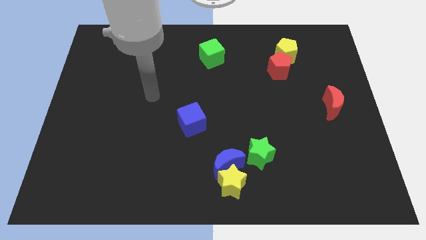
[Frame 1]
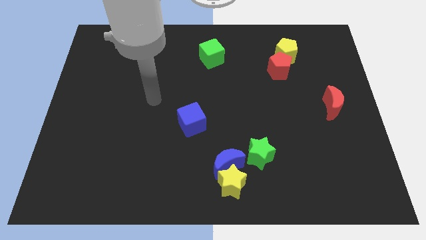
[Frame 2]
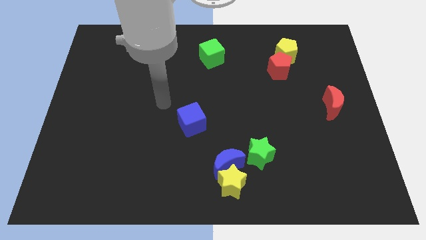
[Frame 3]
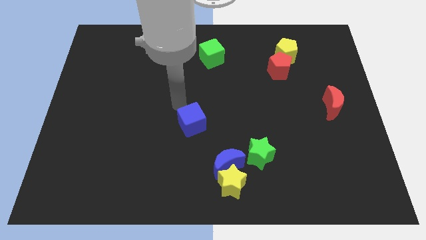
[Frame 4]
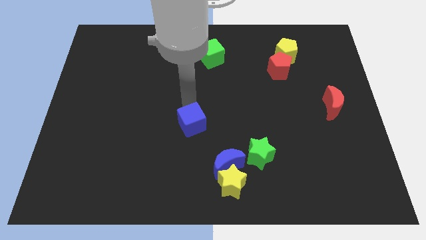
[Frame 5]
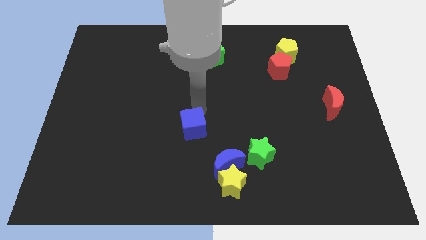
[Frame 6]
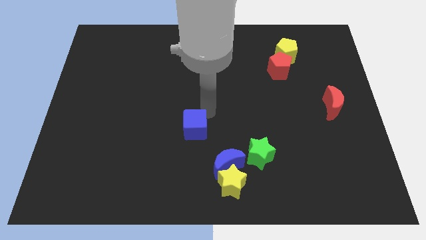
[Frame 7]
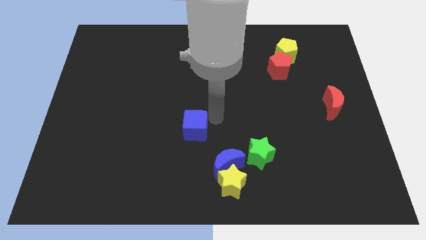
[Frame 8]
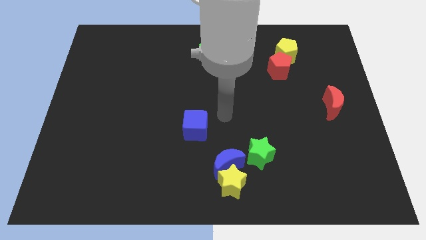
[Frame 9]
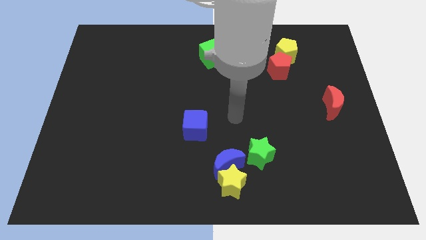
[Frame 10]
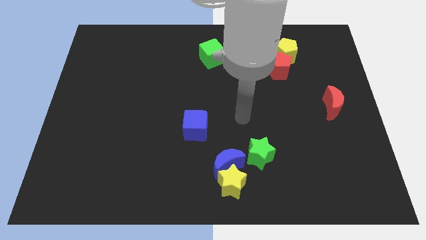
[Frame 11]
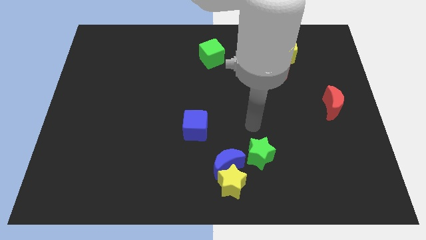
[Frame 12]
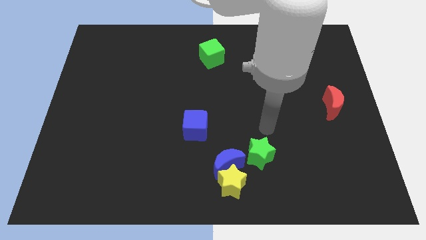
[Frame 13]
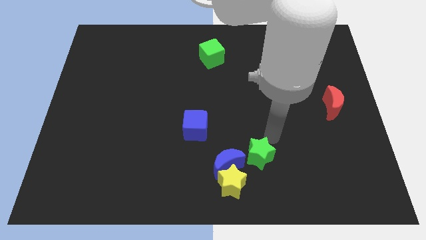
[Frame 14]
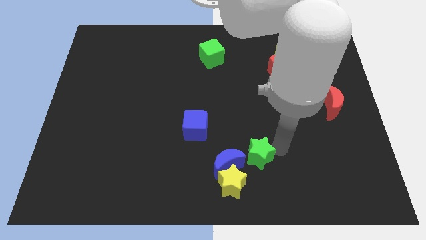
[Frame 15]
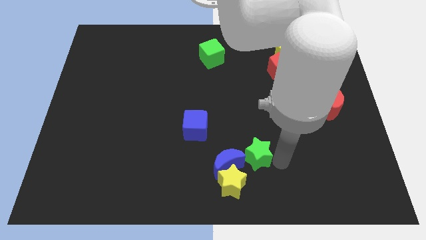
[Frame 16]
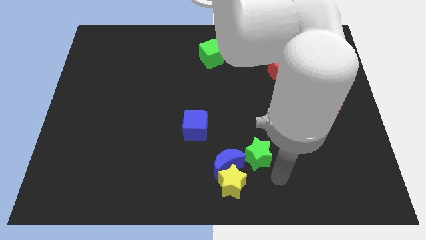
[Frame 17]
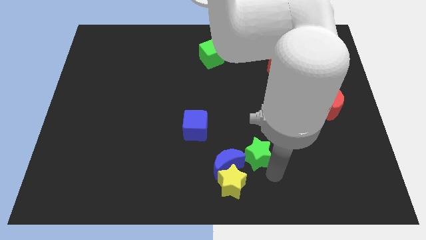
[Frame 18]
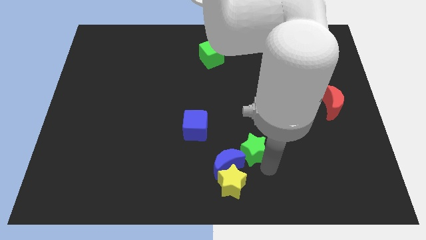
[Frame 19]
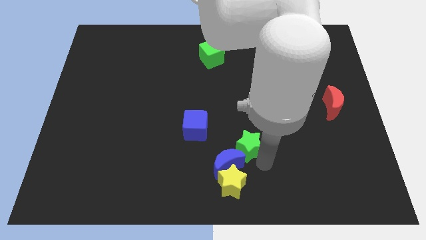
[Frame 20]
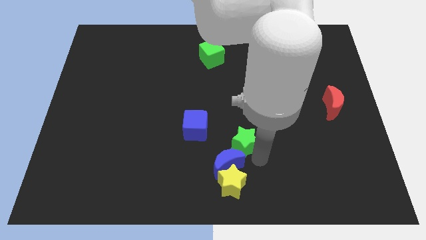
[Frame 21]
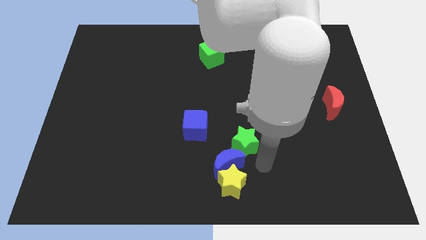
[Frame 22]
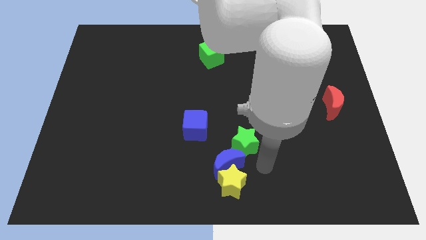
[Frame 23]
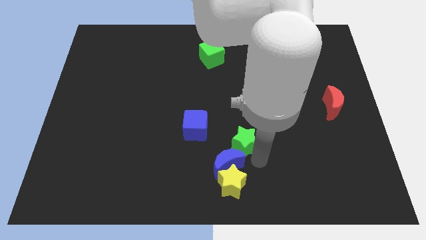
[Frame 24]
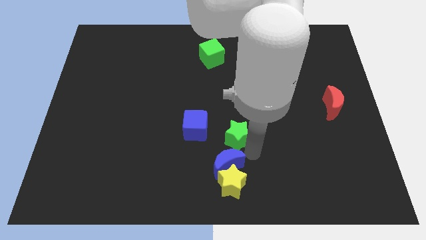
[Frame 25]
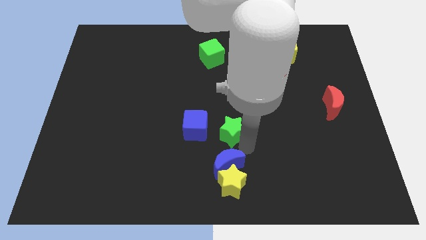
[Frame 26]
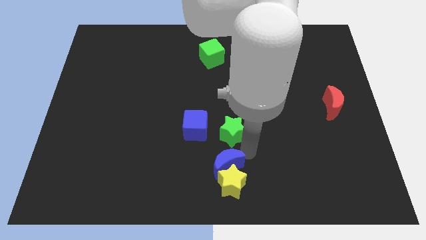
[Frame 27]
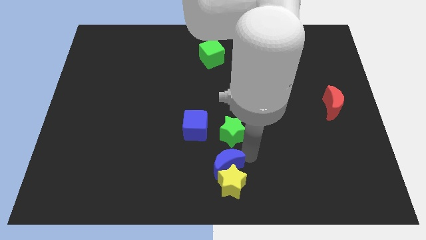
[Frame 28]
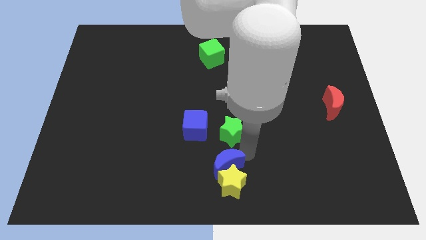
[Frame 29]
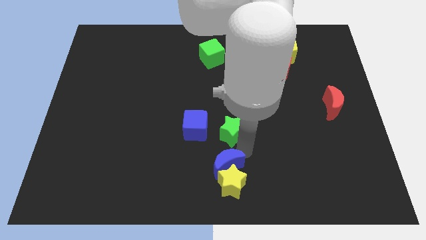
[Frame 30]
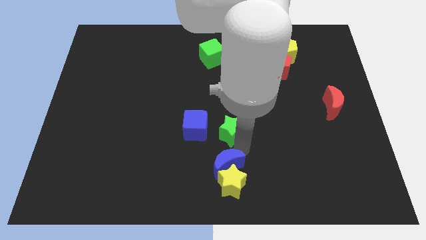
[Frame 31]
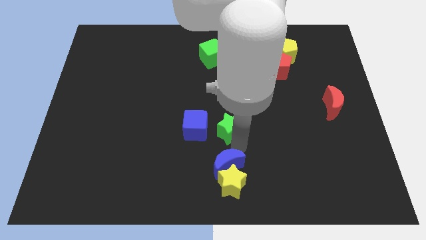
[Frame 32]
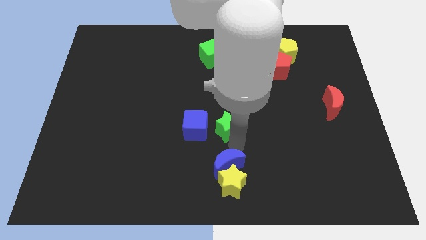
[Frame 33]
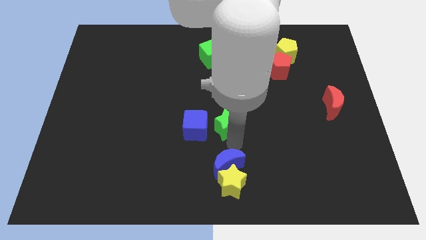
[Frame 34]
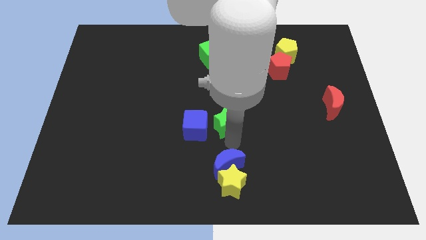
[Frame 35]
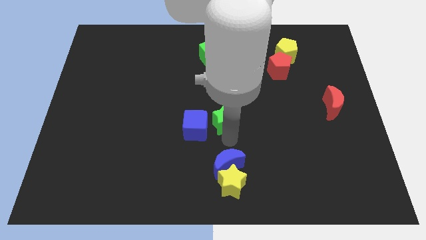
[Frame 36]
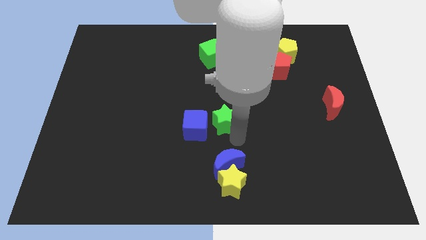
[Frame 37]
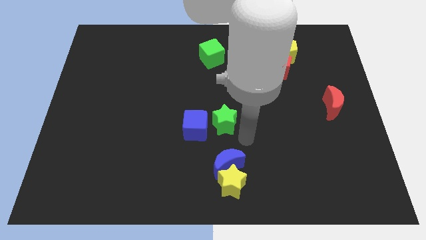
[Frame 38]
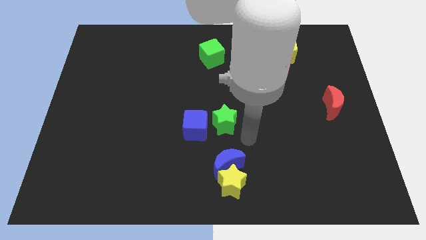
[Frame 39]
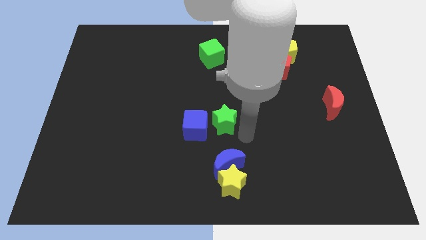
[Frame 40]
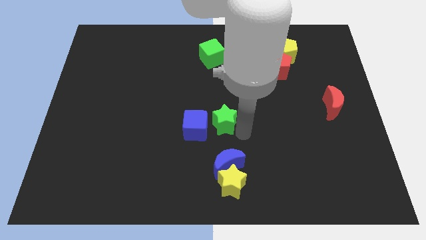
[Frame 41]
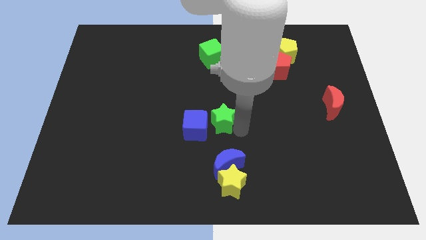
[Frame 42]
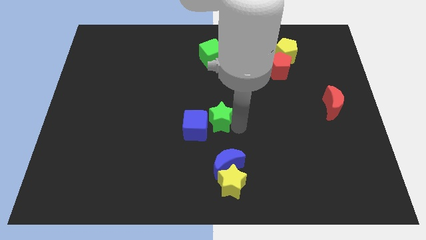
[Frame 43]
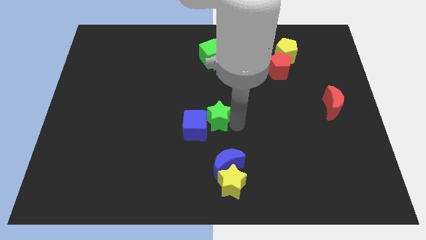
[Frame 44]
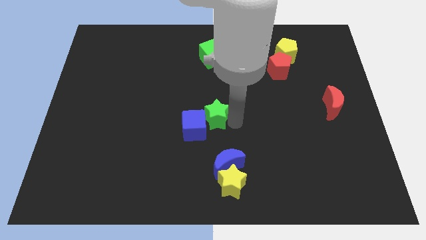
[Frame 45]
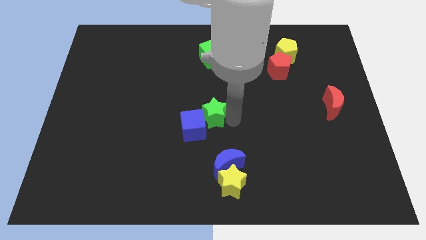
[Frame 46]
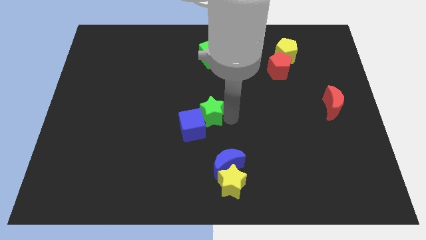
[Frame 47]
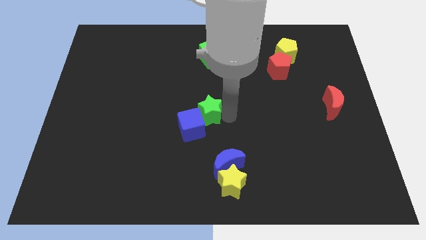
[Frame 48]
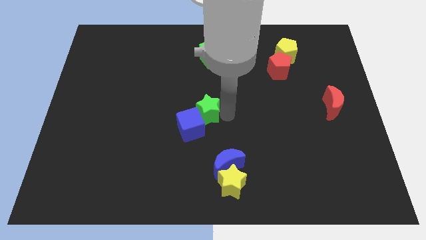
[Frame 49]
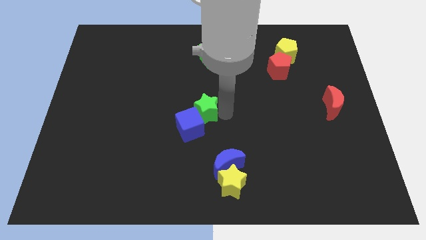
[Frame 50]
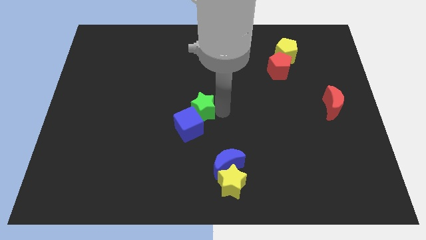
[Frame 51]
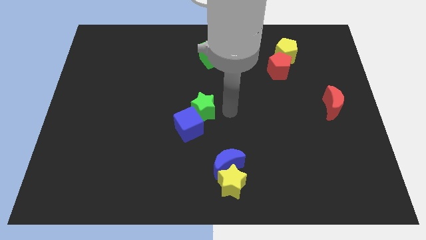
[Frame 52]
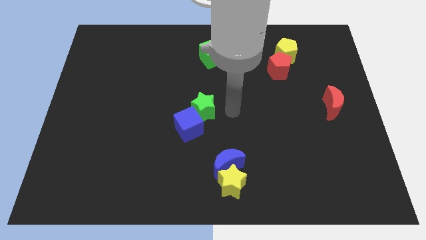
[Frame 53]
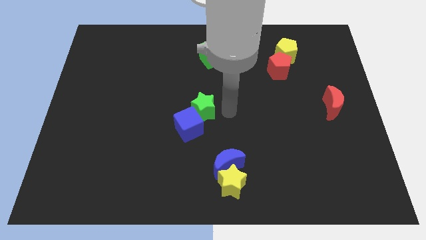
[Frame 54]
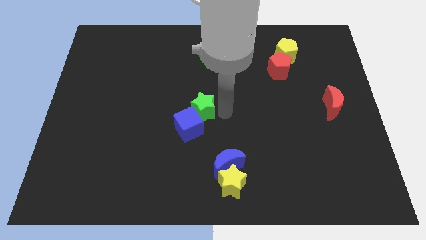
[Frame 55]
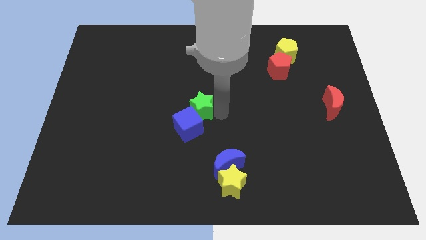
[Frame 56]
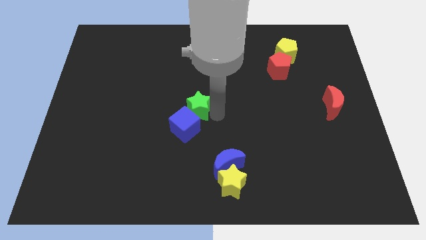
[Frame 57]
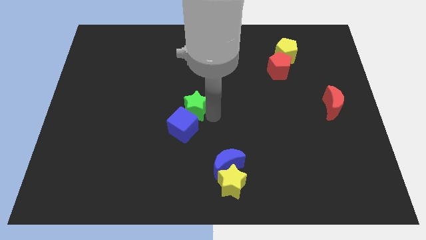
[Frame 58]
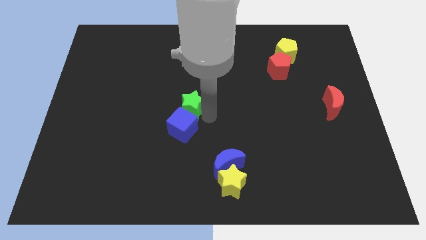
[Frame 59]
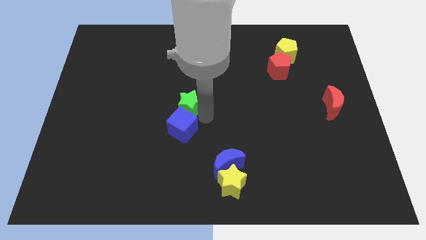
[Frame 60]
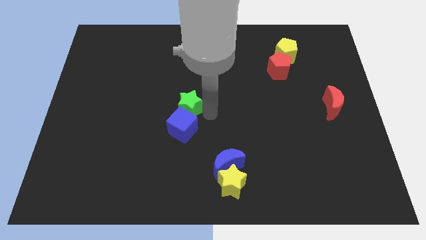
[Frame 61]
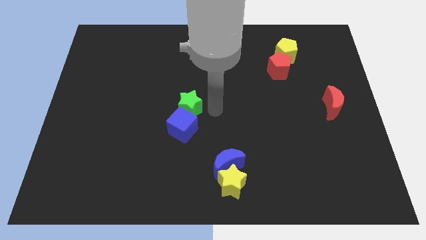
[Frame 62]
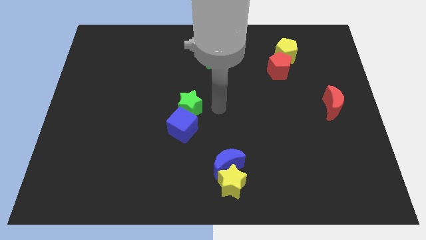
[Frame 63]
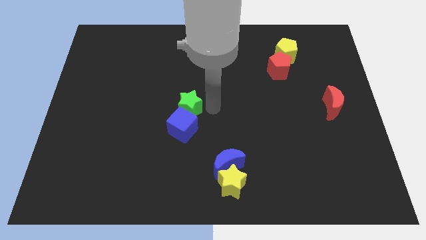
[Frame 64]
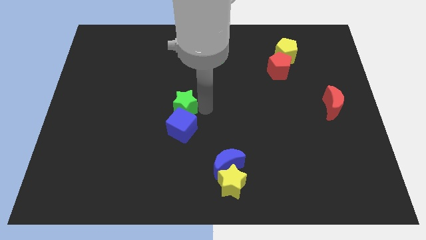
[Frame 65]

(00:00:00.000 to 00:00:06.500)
slide the green star diagonally up and to the left of the blue cube

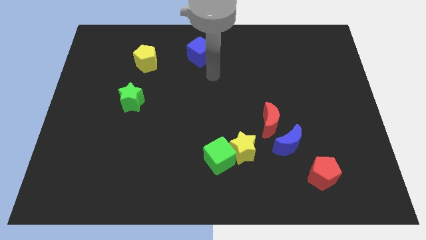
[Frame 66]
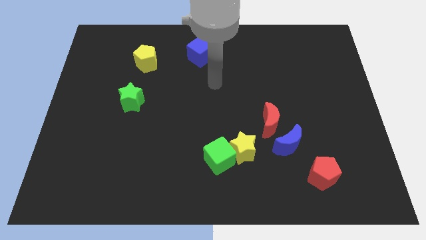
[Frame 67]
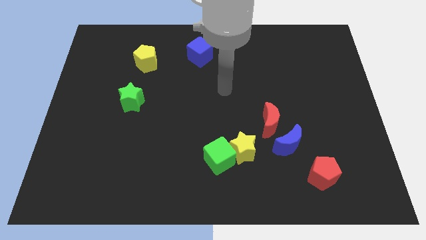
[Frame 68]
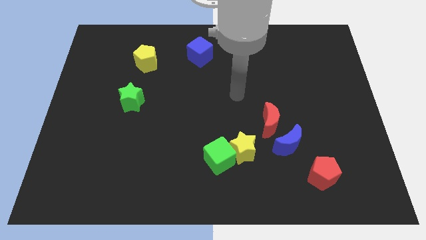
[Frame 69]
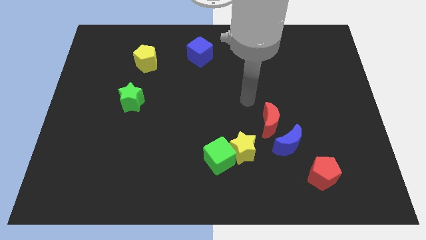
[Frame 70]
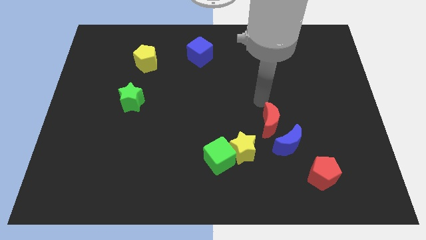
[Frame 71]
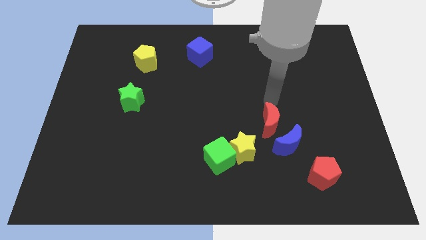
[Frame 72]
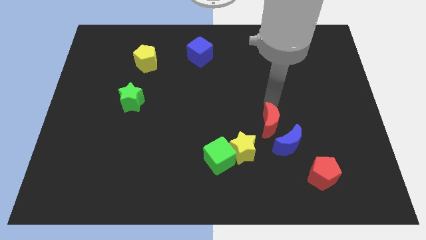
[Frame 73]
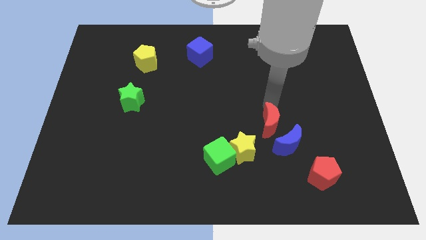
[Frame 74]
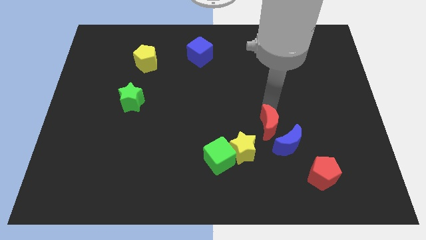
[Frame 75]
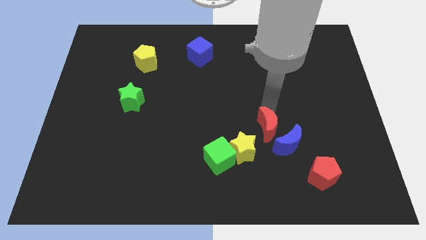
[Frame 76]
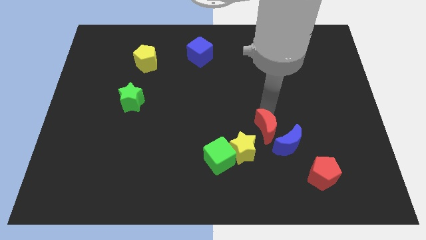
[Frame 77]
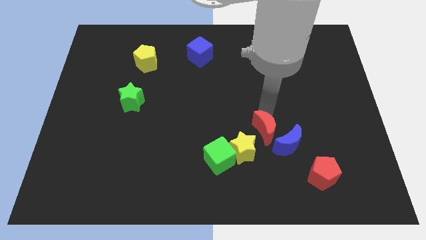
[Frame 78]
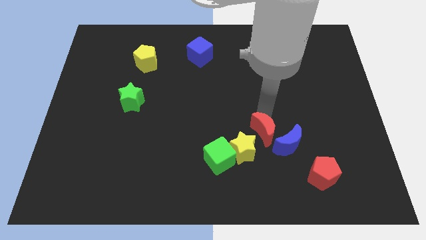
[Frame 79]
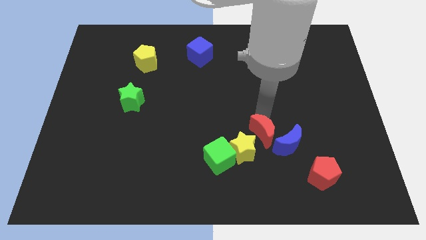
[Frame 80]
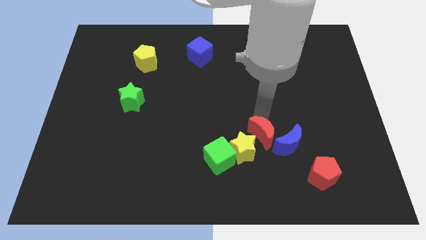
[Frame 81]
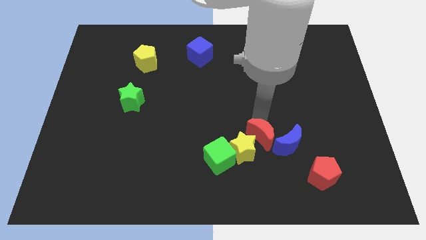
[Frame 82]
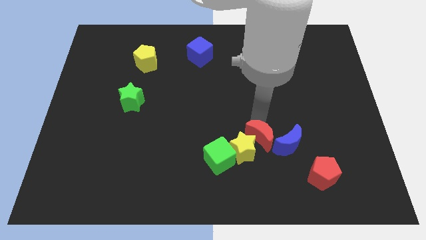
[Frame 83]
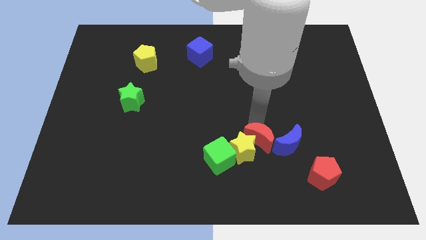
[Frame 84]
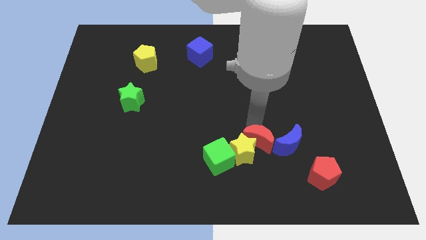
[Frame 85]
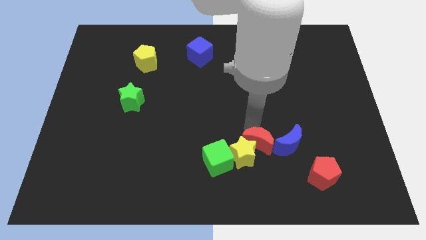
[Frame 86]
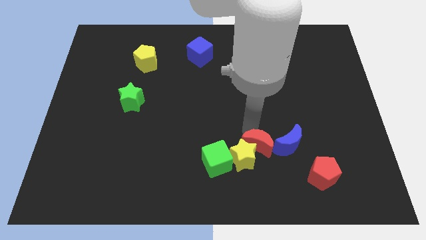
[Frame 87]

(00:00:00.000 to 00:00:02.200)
move the red moon to the bottom left side of the blue moon
